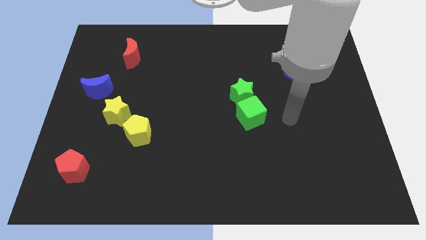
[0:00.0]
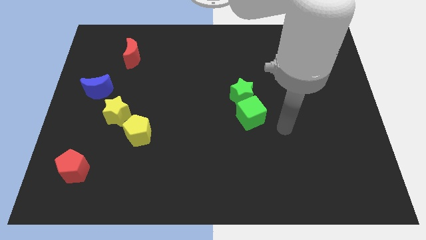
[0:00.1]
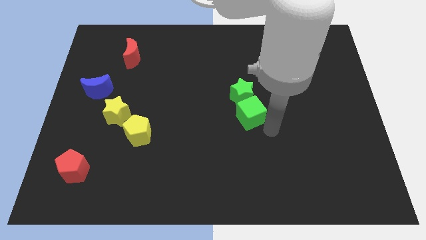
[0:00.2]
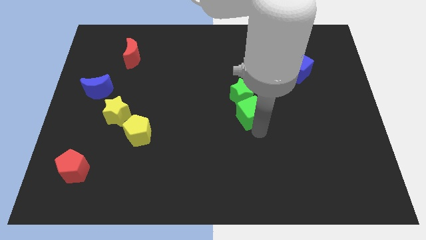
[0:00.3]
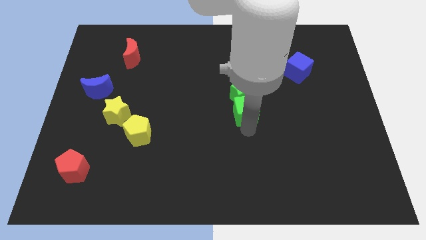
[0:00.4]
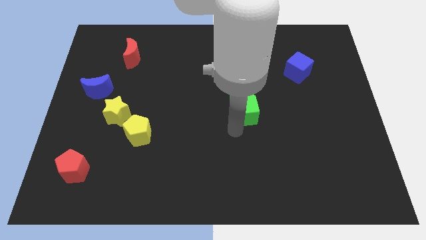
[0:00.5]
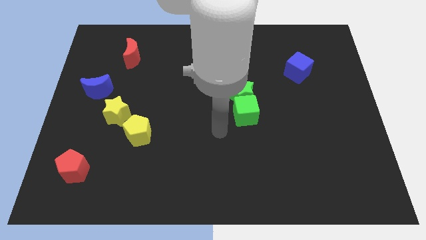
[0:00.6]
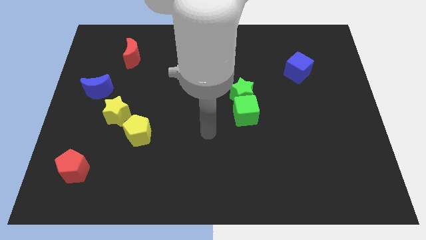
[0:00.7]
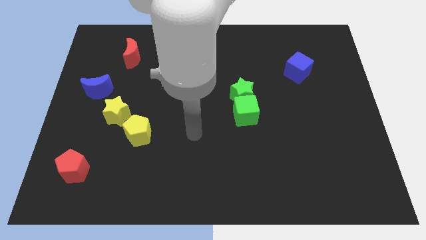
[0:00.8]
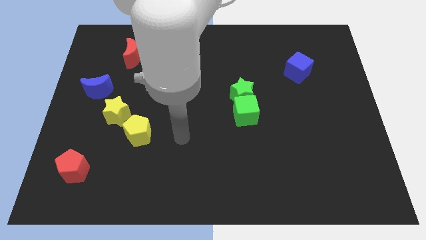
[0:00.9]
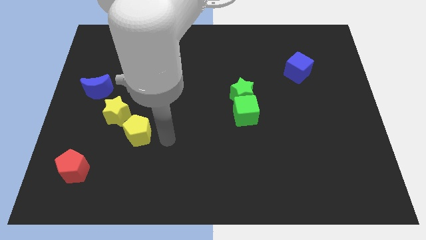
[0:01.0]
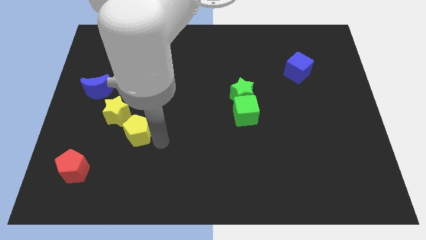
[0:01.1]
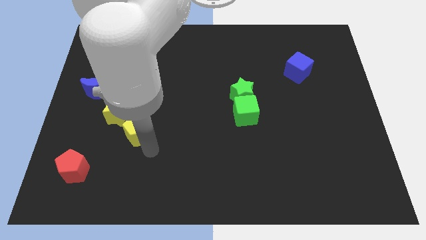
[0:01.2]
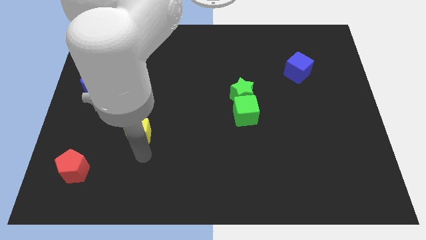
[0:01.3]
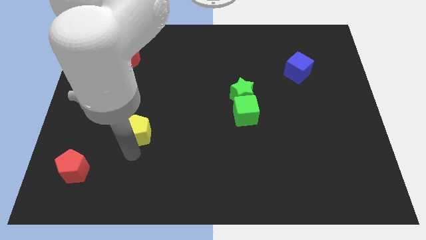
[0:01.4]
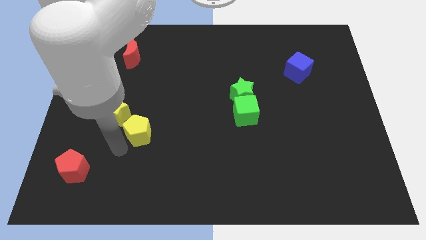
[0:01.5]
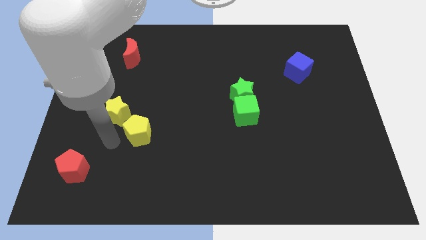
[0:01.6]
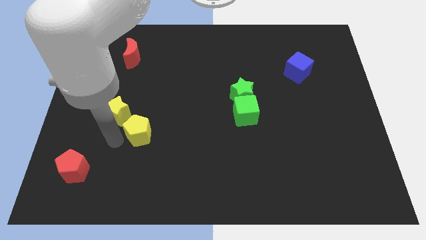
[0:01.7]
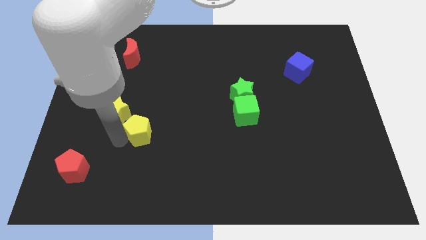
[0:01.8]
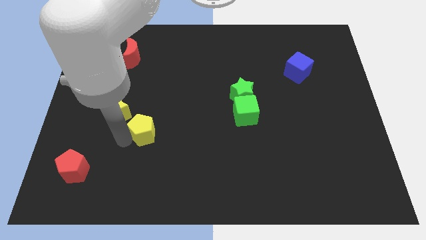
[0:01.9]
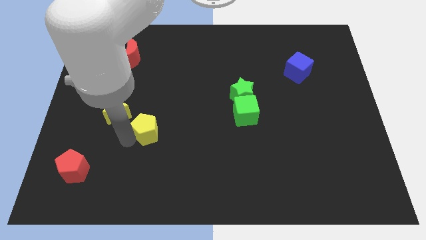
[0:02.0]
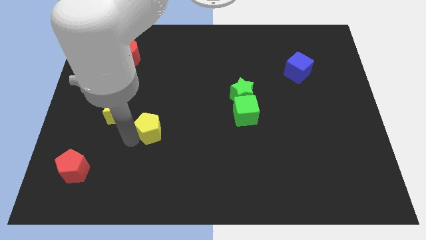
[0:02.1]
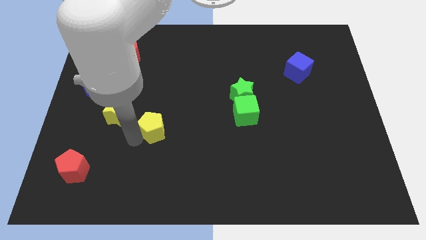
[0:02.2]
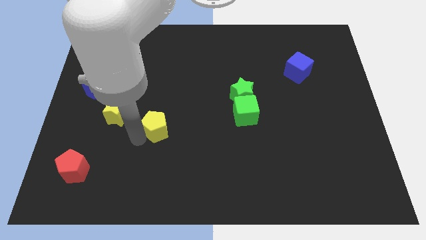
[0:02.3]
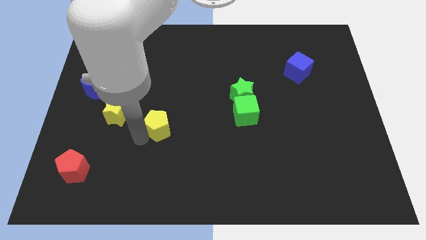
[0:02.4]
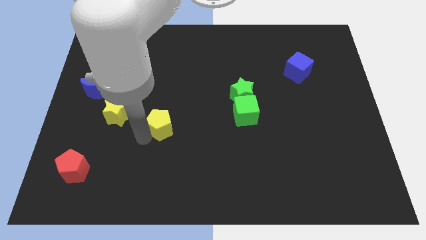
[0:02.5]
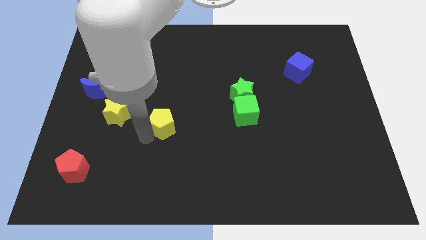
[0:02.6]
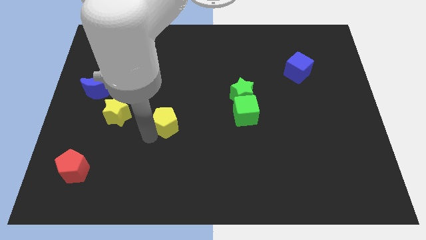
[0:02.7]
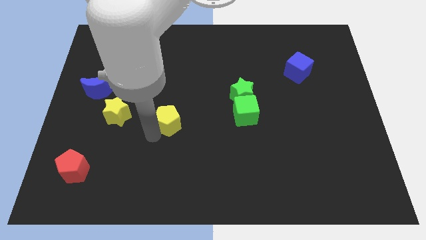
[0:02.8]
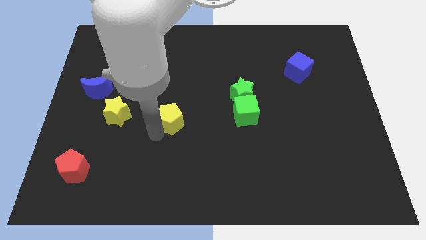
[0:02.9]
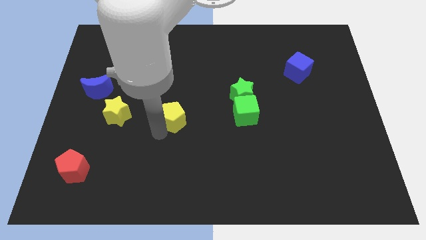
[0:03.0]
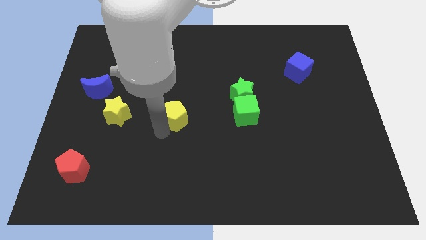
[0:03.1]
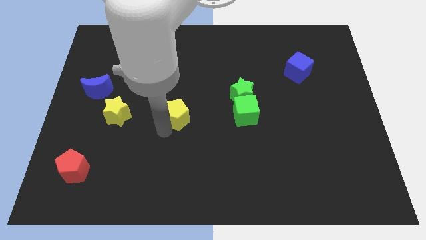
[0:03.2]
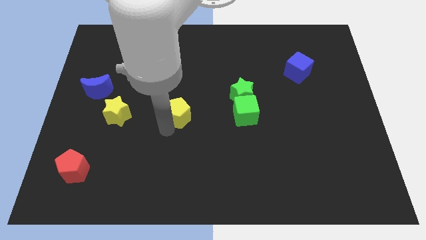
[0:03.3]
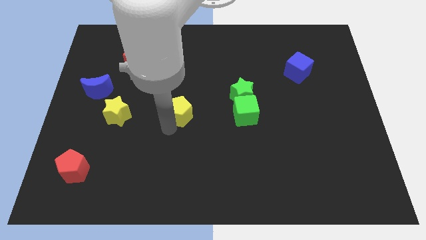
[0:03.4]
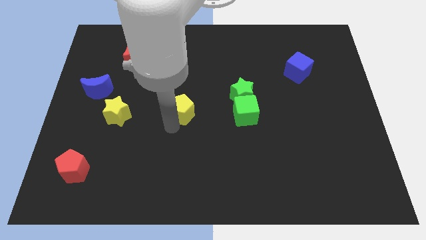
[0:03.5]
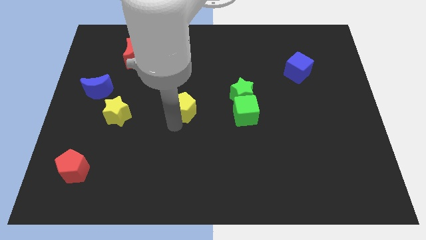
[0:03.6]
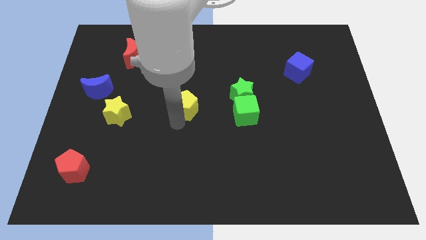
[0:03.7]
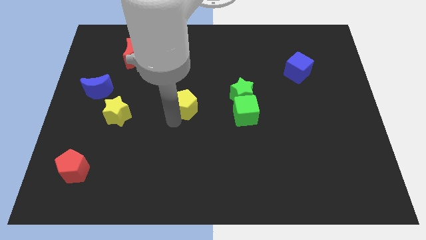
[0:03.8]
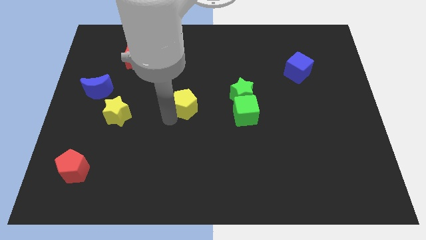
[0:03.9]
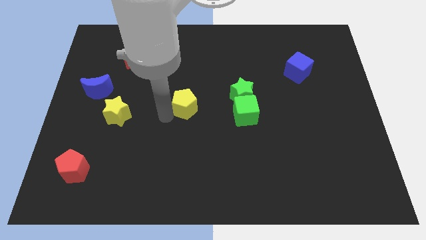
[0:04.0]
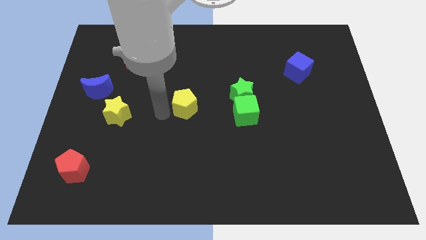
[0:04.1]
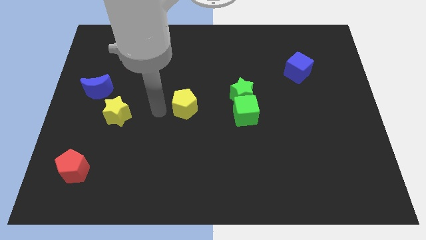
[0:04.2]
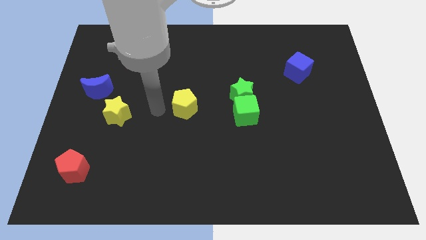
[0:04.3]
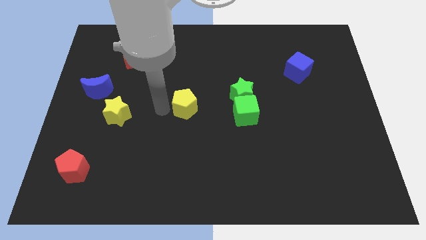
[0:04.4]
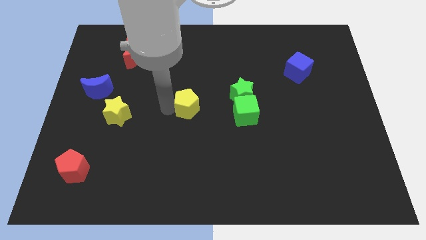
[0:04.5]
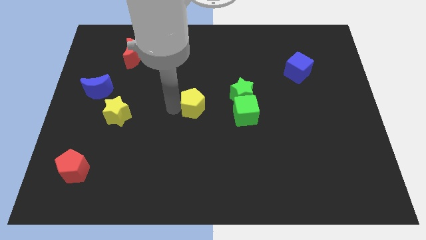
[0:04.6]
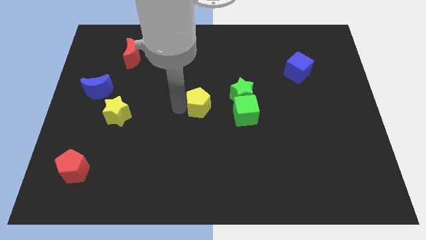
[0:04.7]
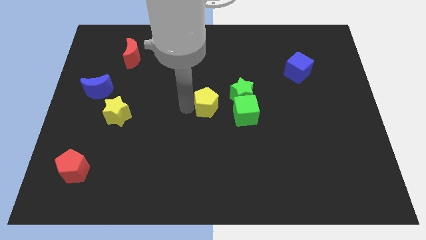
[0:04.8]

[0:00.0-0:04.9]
move the yellow pentagon diagonally up and to the left of the green cube

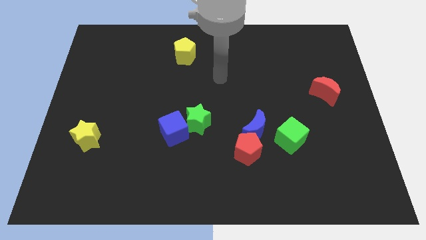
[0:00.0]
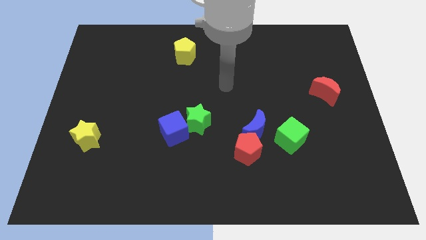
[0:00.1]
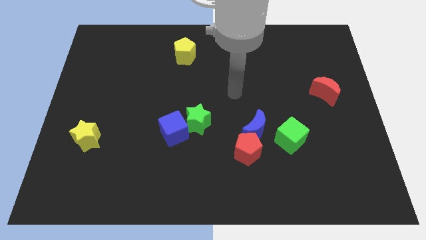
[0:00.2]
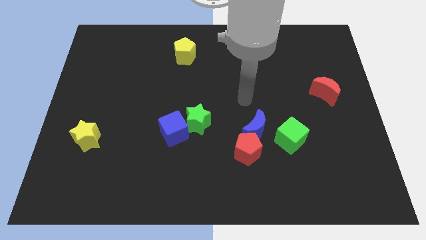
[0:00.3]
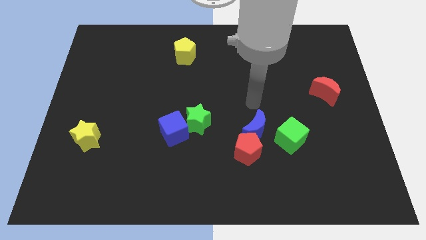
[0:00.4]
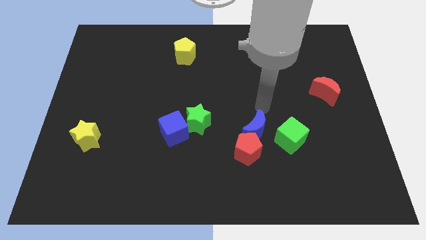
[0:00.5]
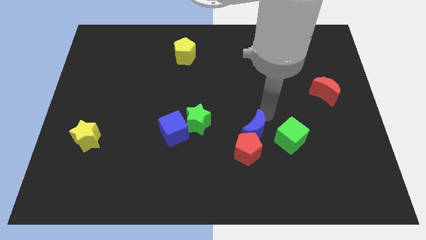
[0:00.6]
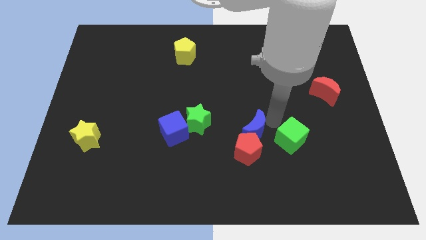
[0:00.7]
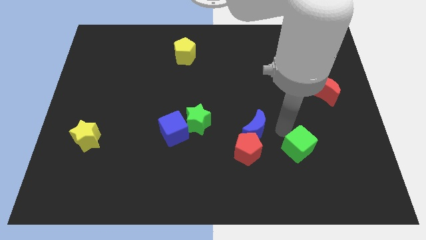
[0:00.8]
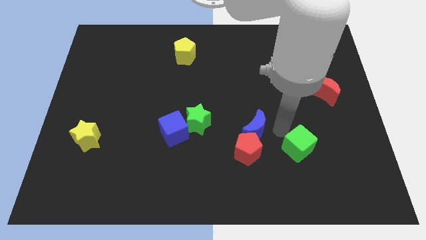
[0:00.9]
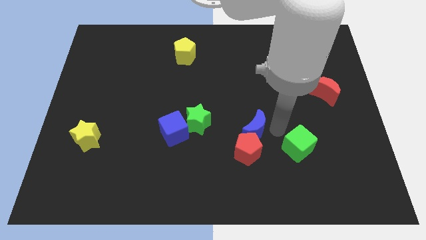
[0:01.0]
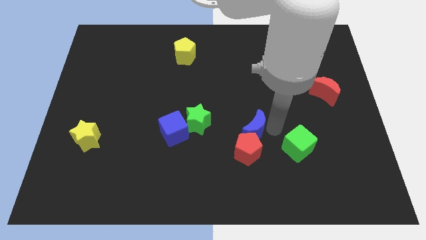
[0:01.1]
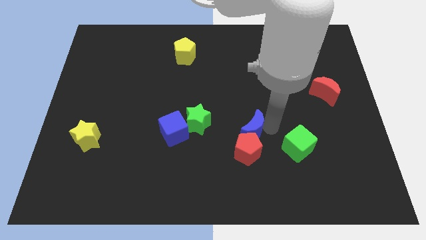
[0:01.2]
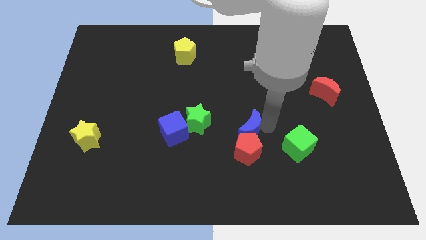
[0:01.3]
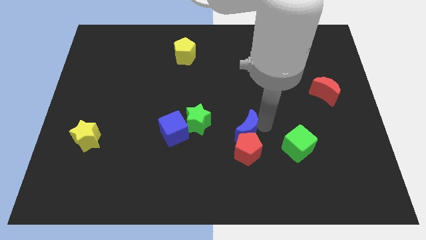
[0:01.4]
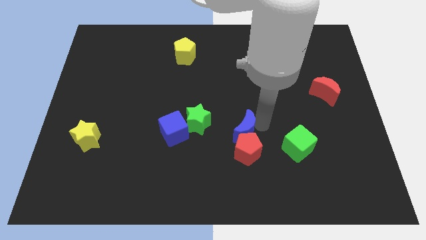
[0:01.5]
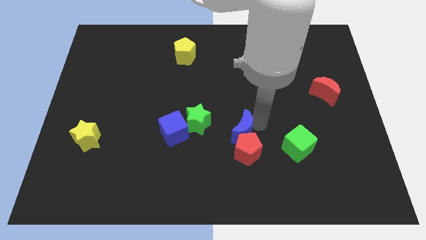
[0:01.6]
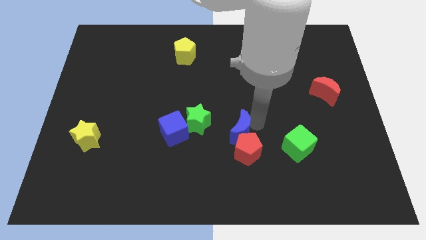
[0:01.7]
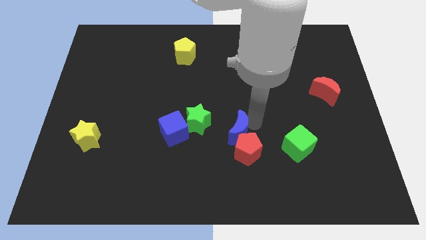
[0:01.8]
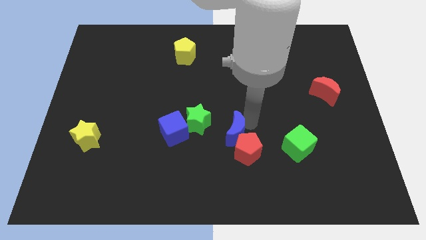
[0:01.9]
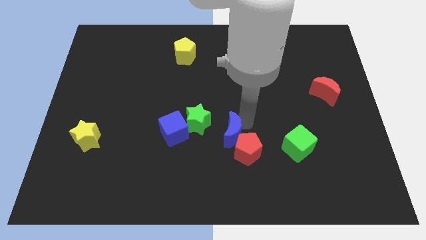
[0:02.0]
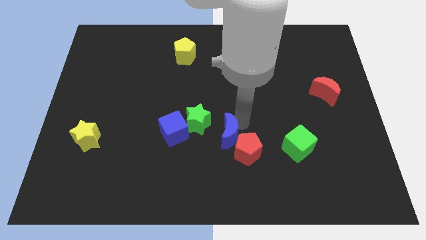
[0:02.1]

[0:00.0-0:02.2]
move the blue moon to the left side of the red pentagon

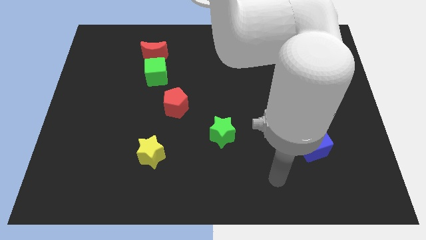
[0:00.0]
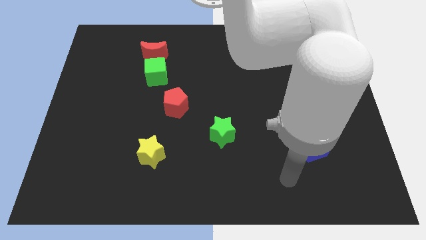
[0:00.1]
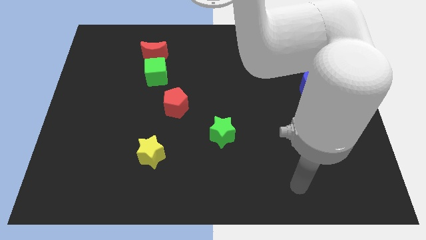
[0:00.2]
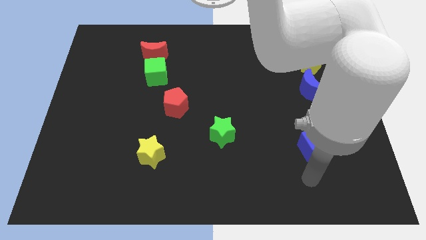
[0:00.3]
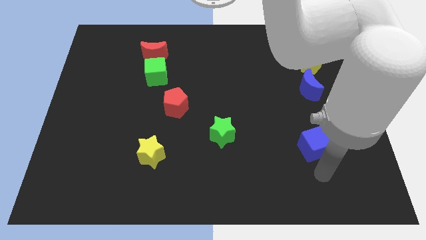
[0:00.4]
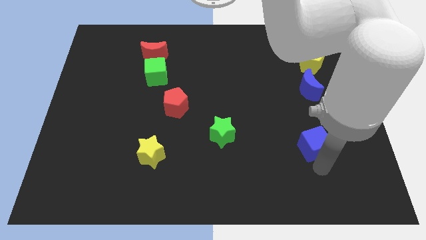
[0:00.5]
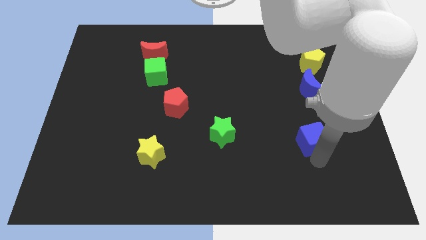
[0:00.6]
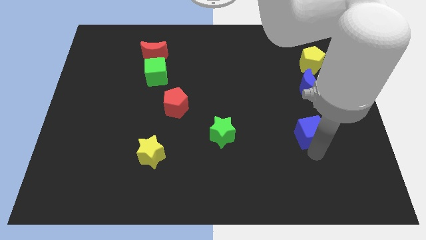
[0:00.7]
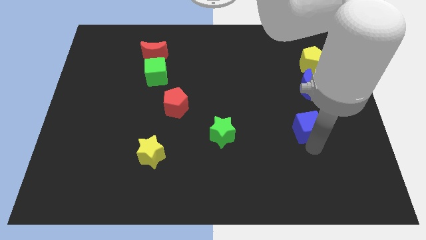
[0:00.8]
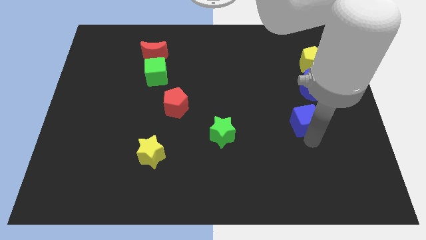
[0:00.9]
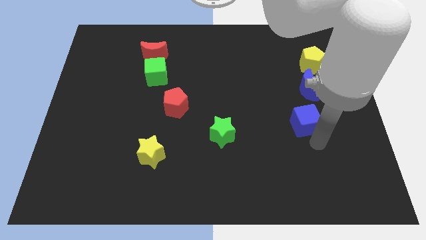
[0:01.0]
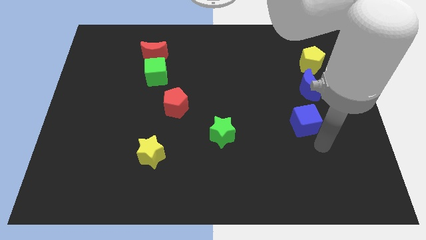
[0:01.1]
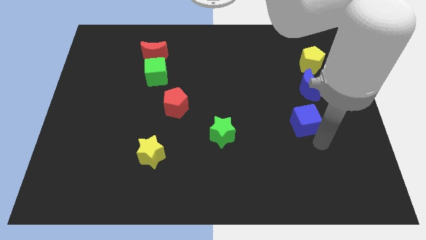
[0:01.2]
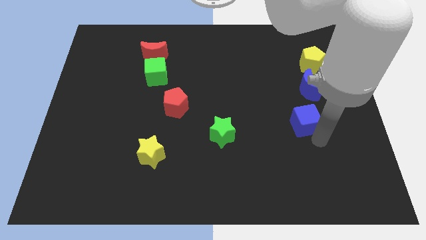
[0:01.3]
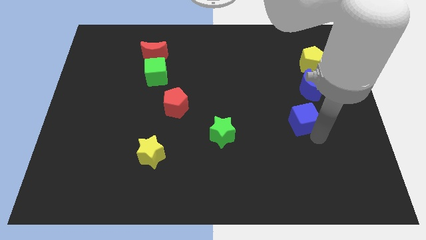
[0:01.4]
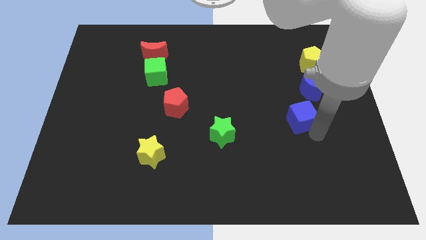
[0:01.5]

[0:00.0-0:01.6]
slide the blue cube diagonally down and to the left of the blue moon
